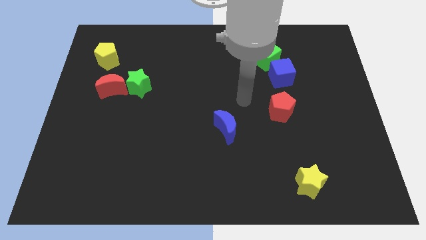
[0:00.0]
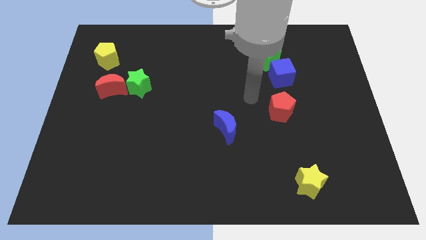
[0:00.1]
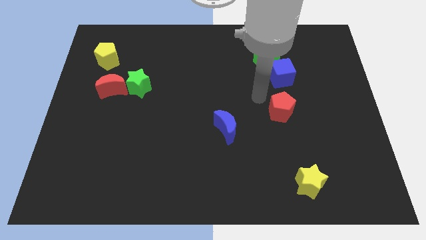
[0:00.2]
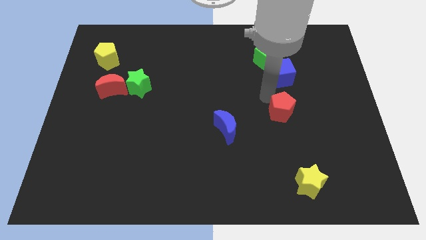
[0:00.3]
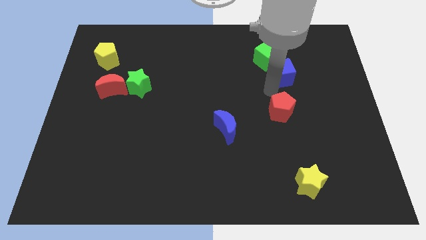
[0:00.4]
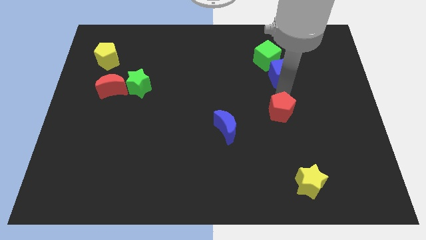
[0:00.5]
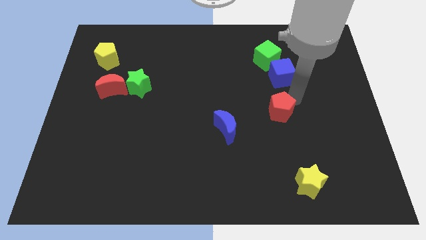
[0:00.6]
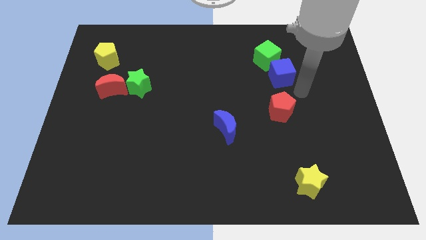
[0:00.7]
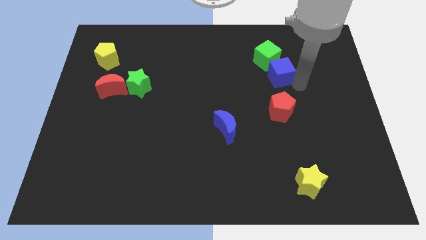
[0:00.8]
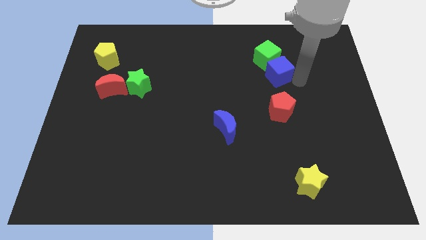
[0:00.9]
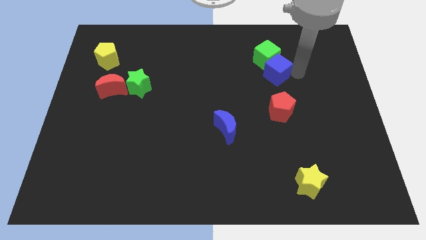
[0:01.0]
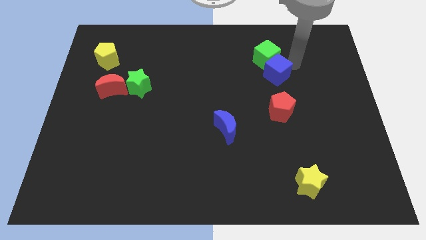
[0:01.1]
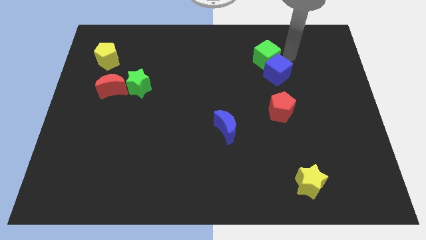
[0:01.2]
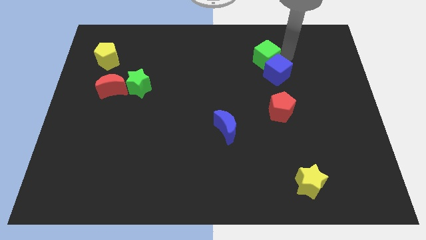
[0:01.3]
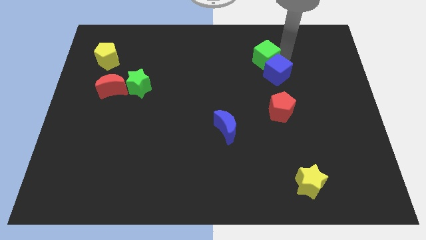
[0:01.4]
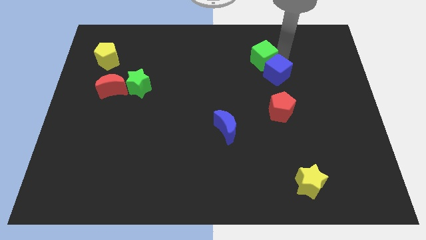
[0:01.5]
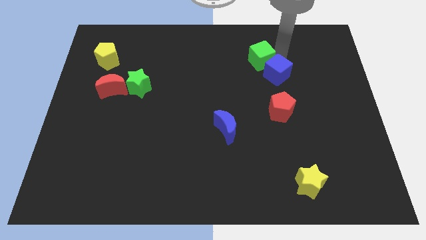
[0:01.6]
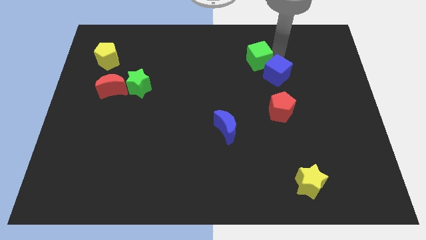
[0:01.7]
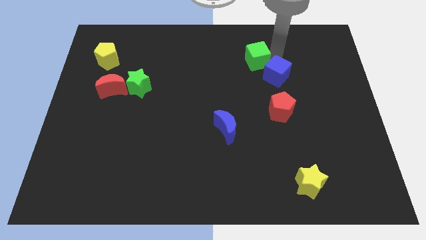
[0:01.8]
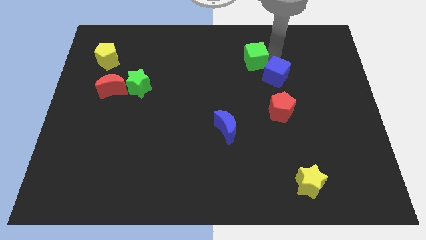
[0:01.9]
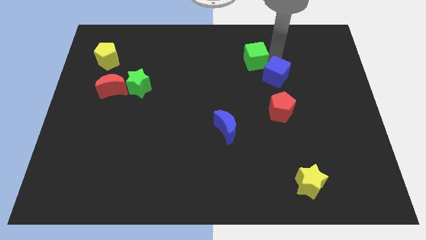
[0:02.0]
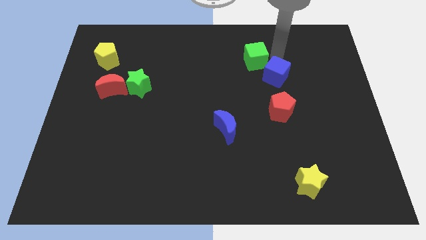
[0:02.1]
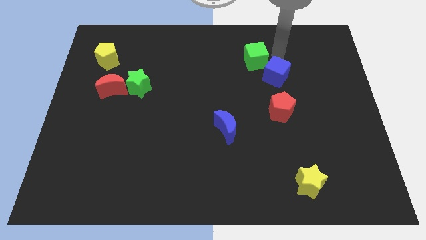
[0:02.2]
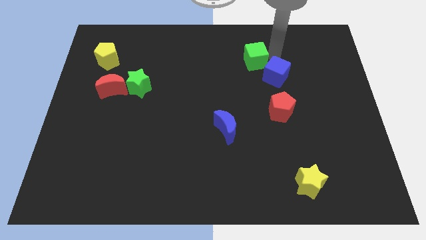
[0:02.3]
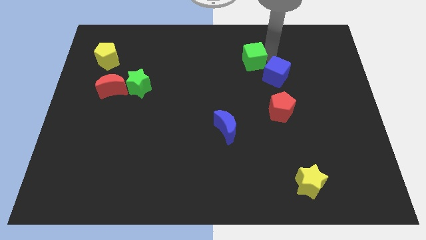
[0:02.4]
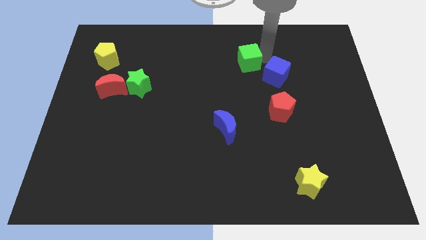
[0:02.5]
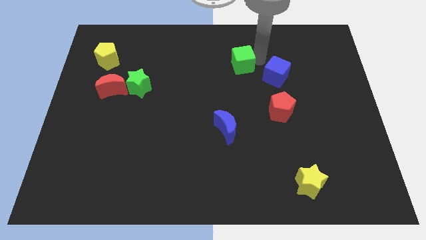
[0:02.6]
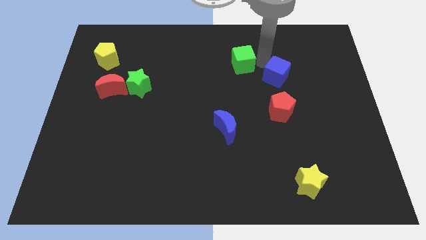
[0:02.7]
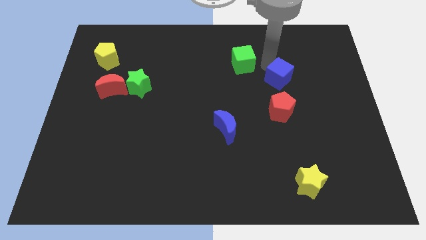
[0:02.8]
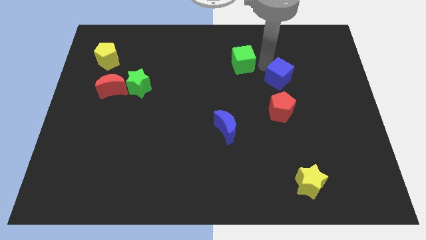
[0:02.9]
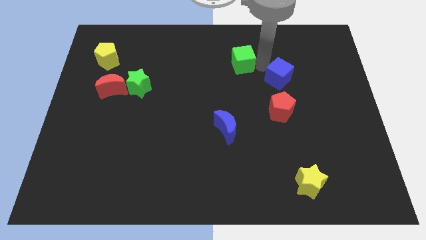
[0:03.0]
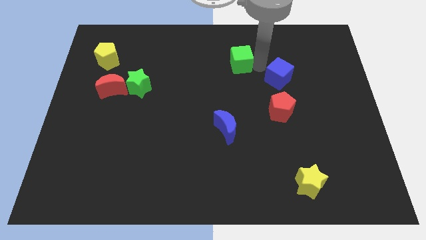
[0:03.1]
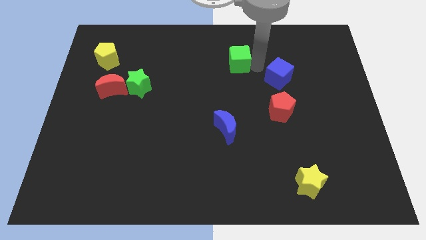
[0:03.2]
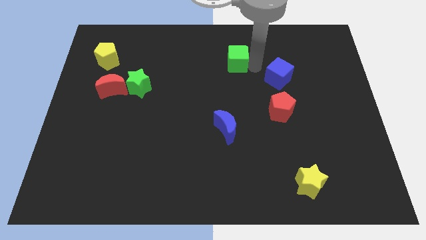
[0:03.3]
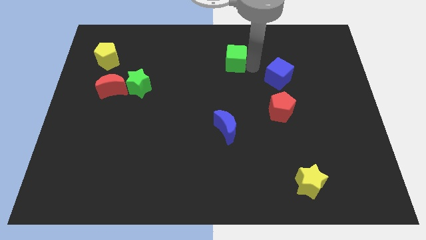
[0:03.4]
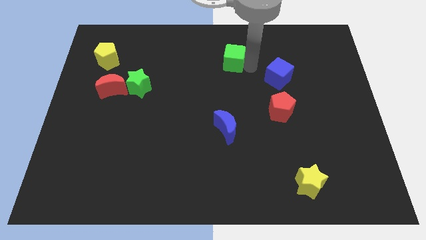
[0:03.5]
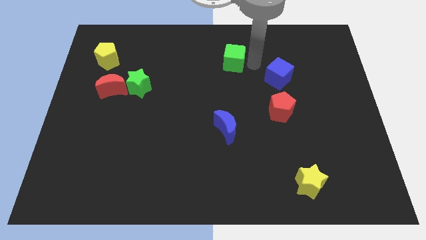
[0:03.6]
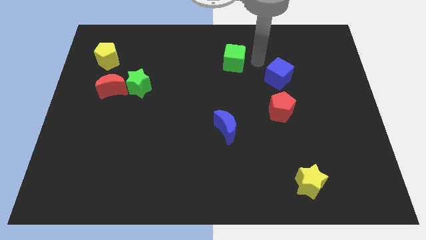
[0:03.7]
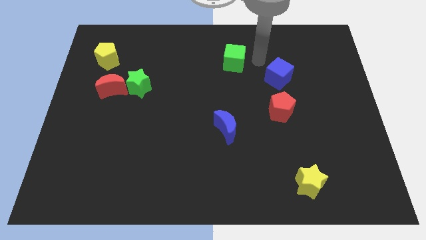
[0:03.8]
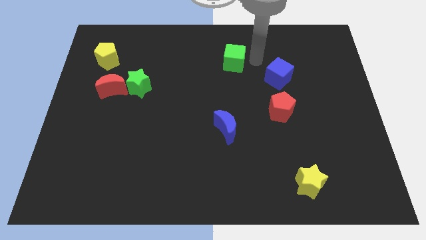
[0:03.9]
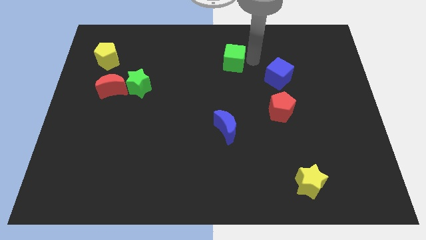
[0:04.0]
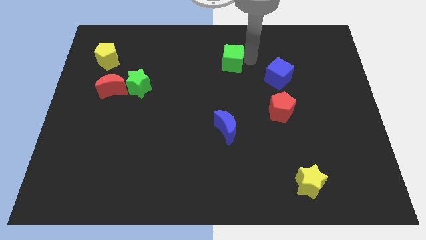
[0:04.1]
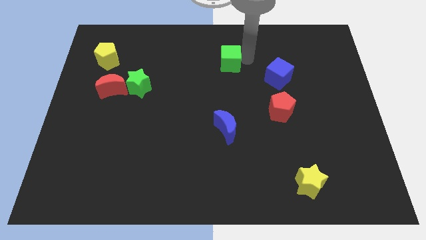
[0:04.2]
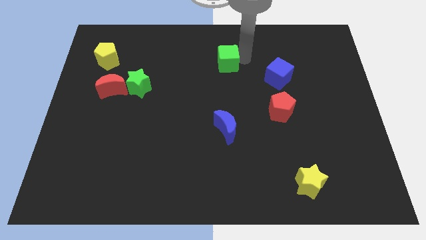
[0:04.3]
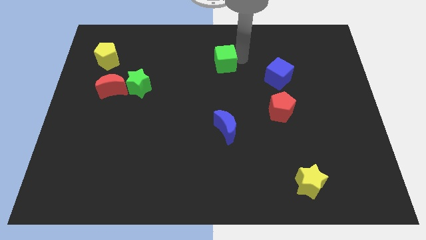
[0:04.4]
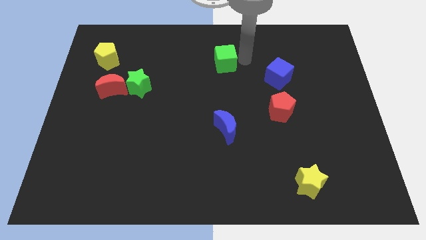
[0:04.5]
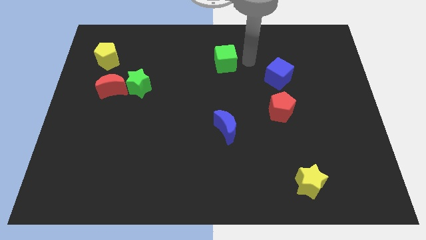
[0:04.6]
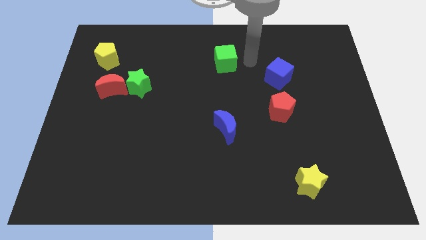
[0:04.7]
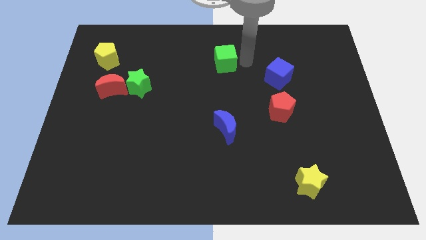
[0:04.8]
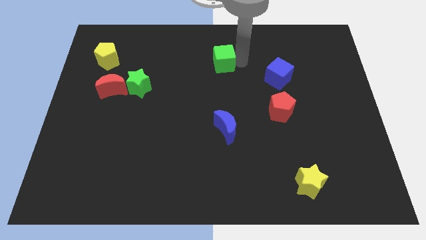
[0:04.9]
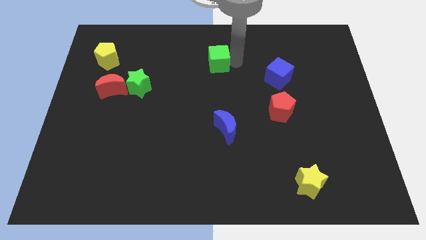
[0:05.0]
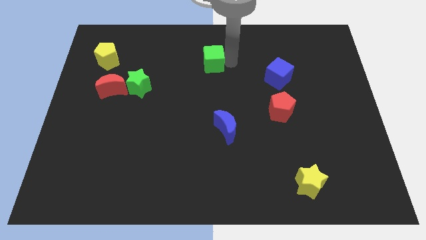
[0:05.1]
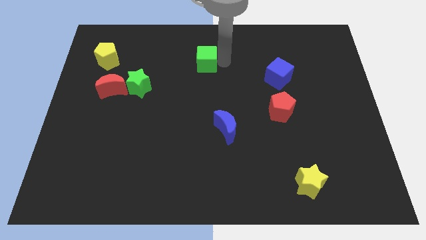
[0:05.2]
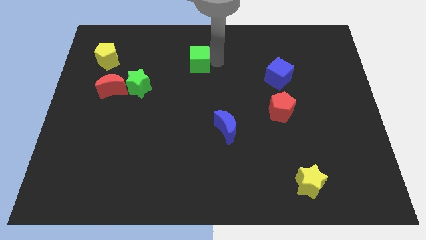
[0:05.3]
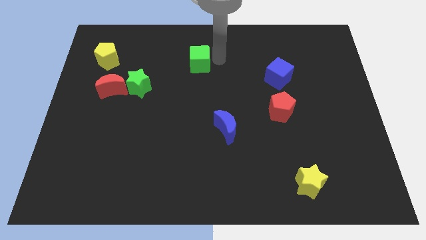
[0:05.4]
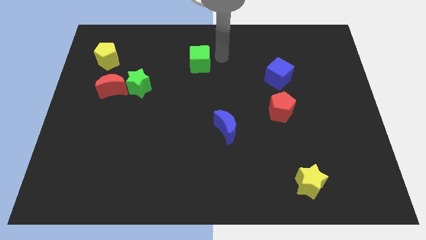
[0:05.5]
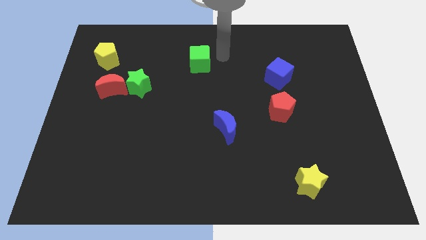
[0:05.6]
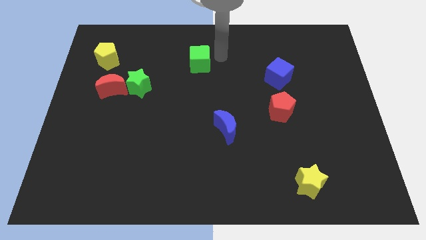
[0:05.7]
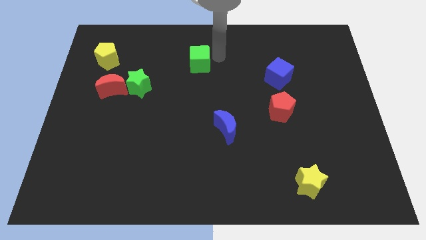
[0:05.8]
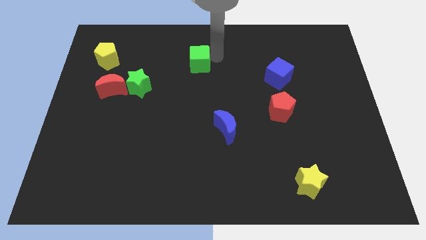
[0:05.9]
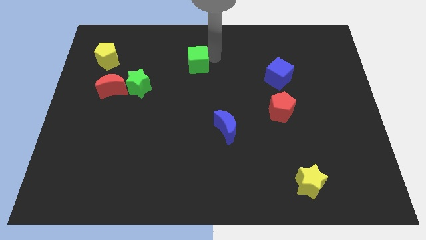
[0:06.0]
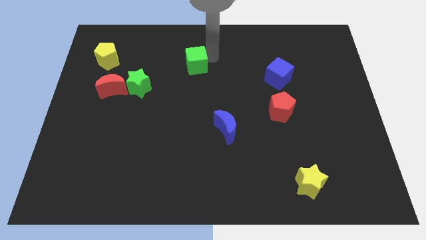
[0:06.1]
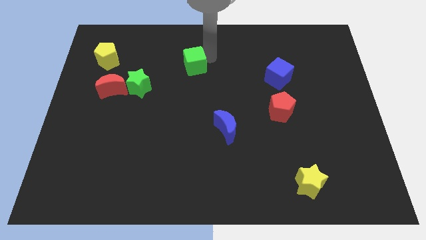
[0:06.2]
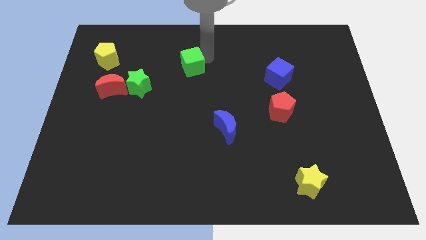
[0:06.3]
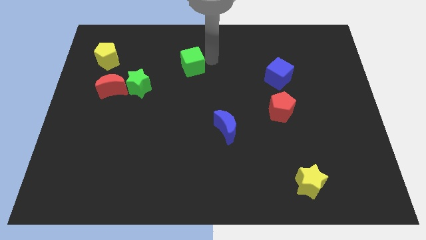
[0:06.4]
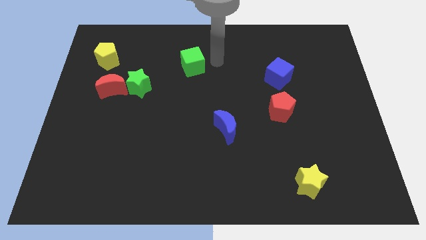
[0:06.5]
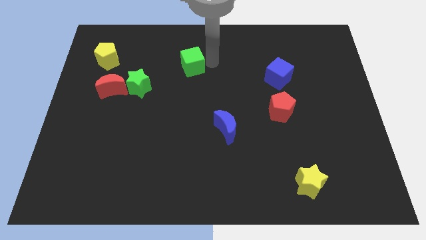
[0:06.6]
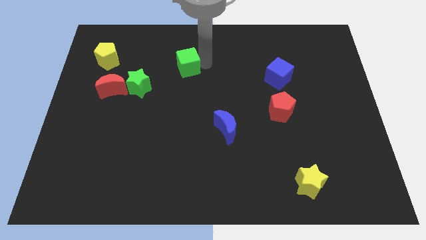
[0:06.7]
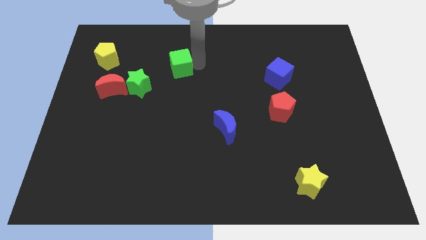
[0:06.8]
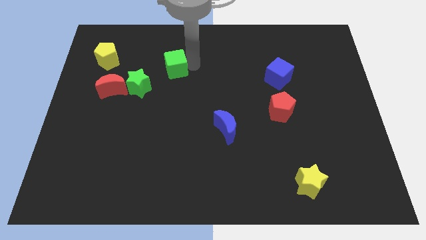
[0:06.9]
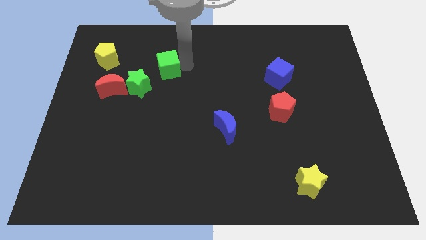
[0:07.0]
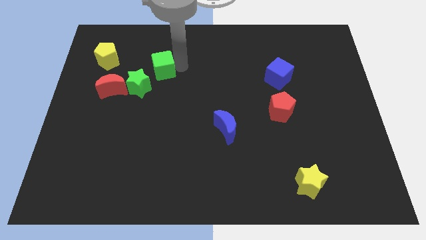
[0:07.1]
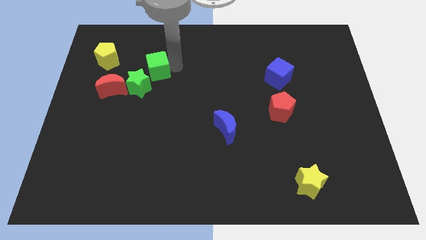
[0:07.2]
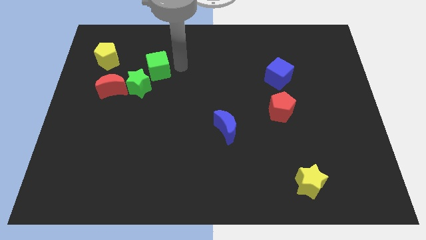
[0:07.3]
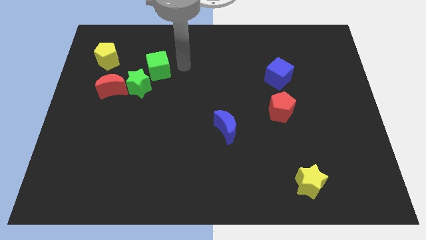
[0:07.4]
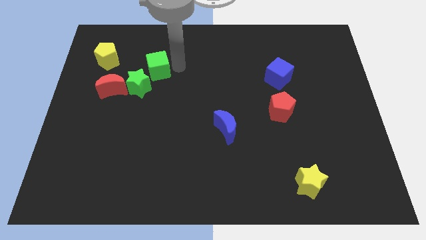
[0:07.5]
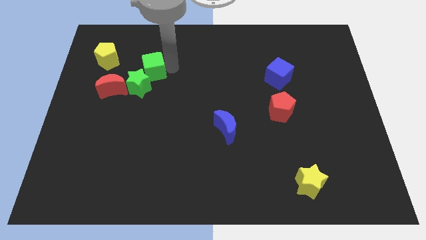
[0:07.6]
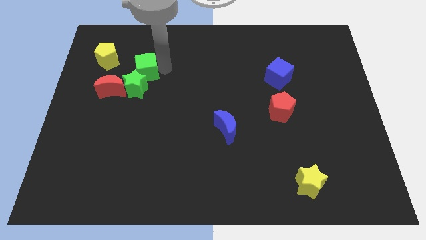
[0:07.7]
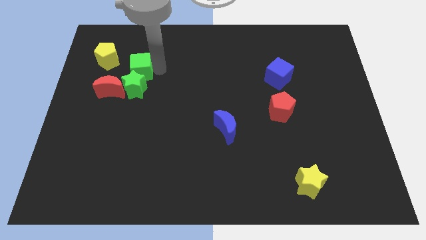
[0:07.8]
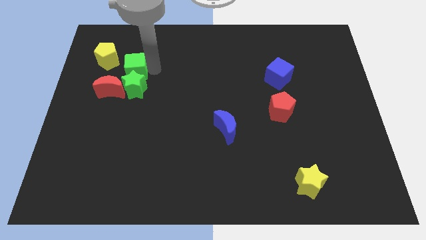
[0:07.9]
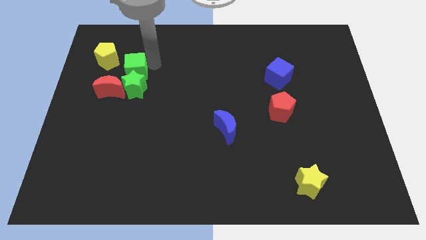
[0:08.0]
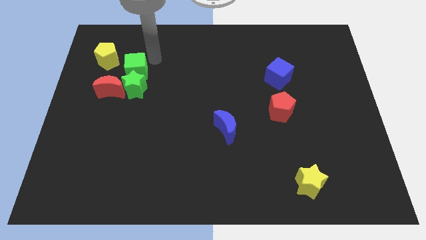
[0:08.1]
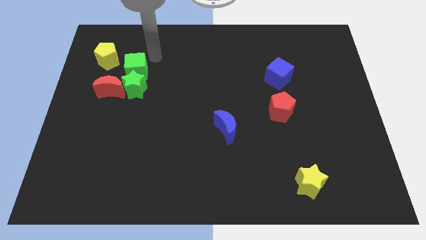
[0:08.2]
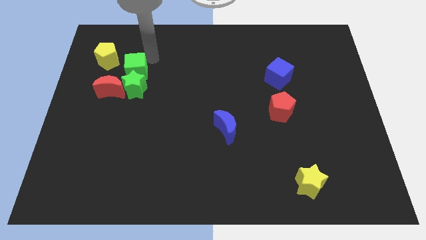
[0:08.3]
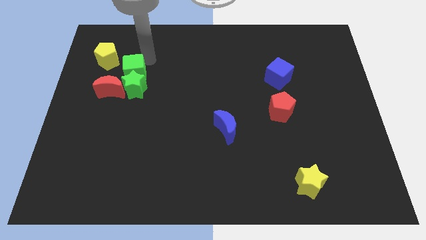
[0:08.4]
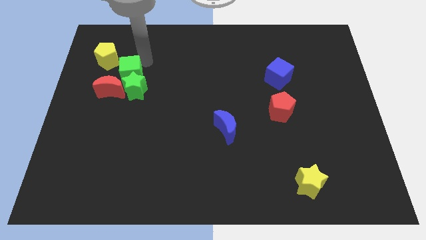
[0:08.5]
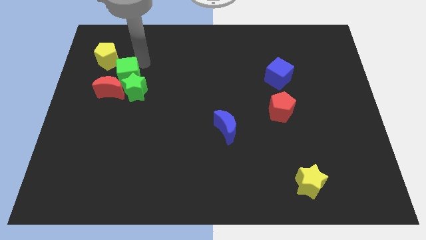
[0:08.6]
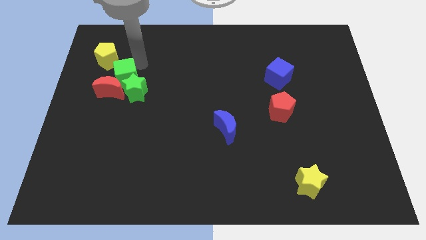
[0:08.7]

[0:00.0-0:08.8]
push the green cube next to the red moon
